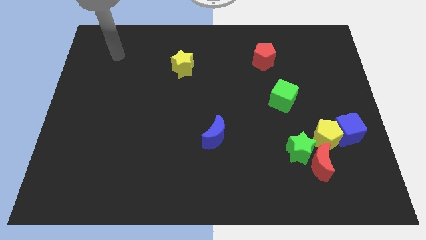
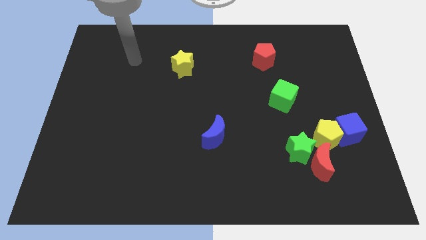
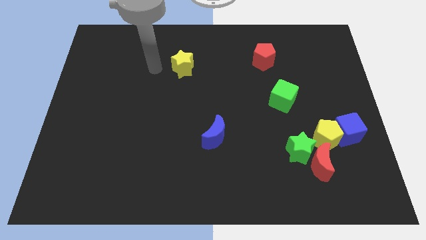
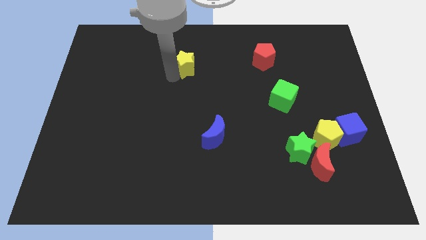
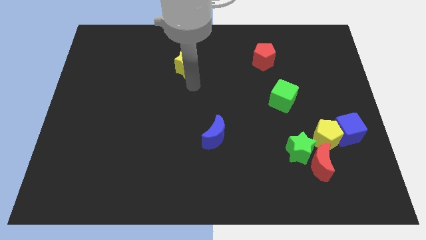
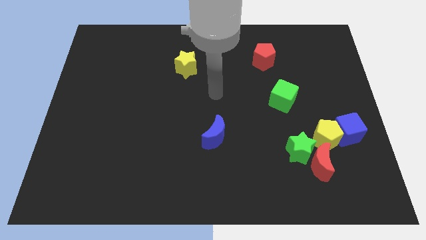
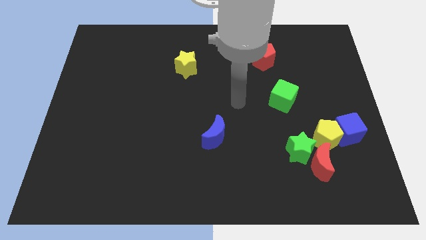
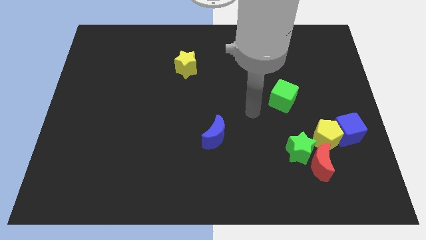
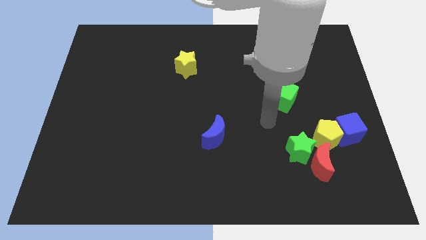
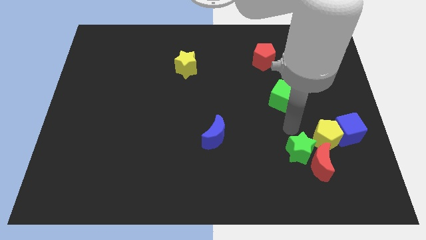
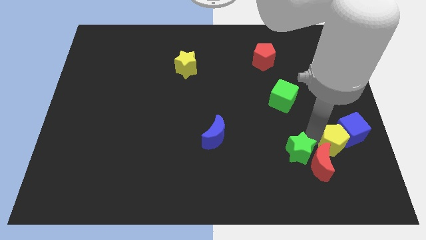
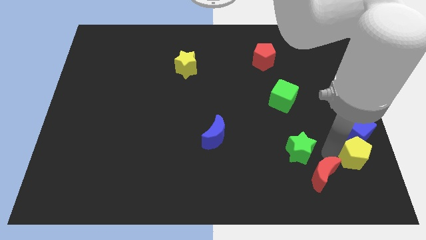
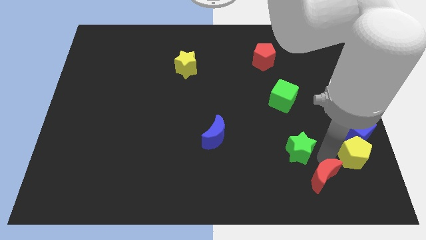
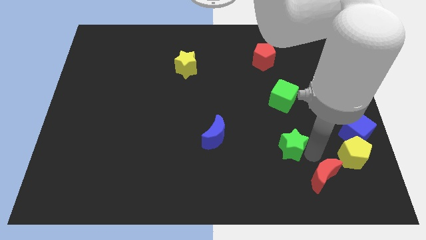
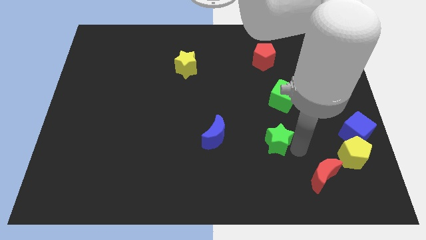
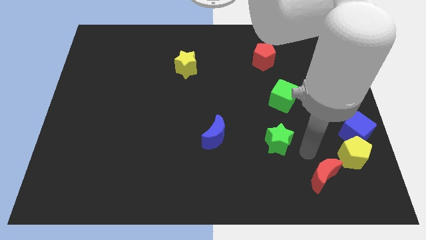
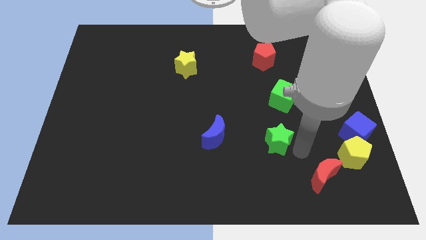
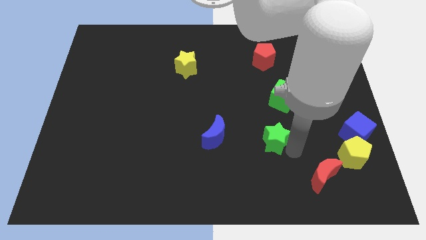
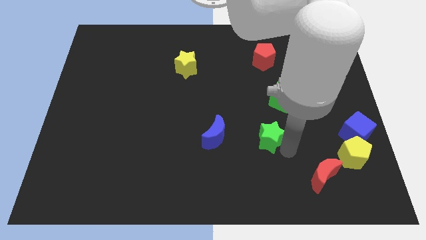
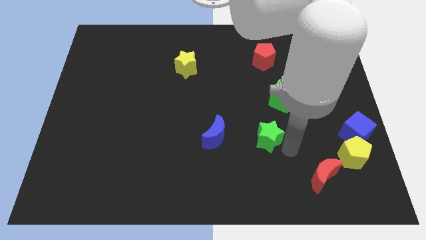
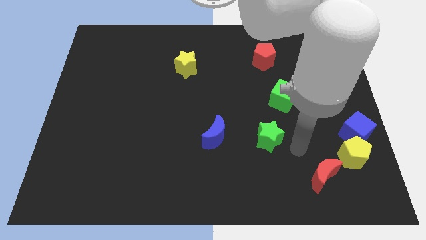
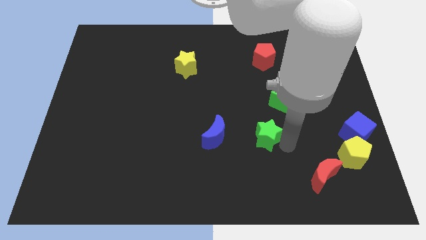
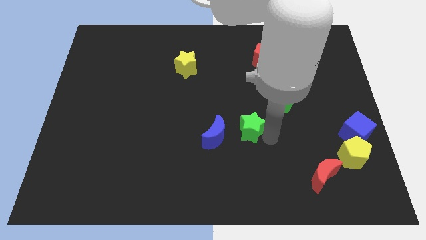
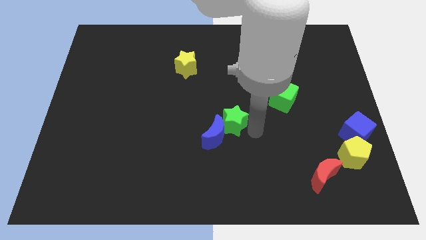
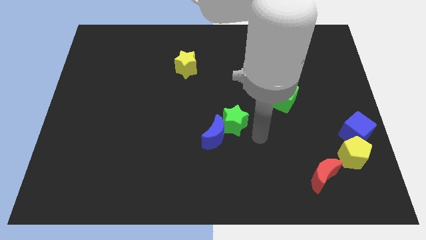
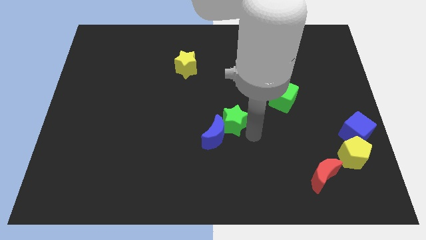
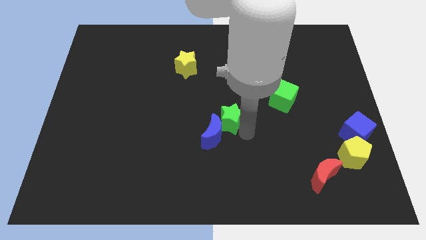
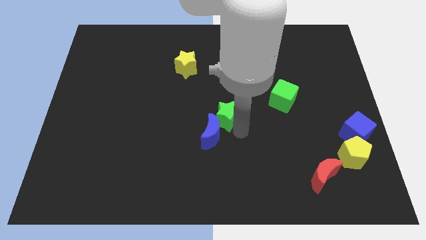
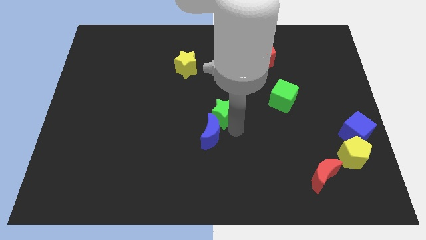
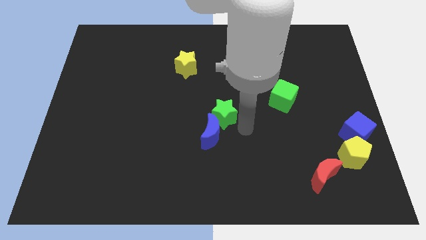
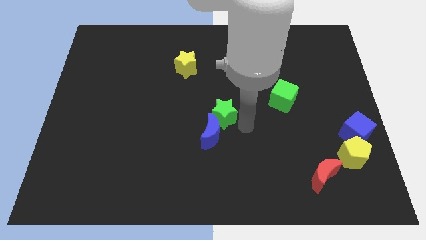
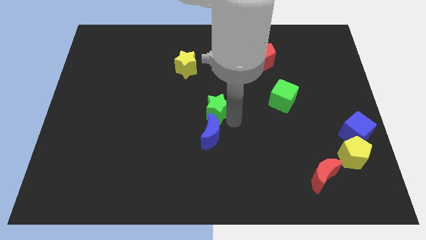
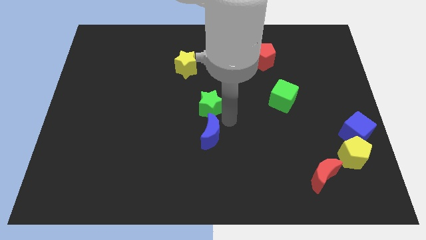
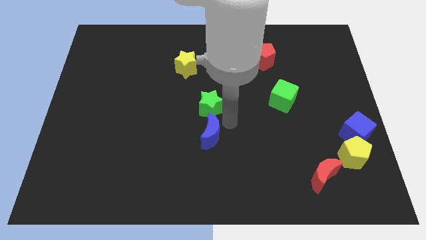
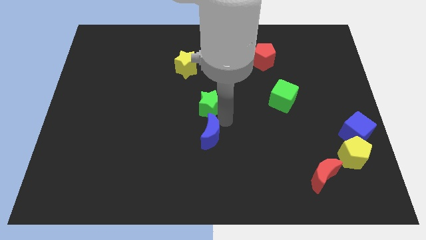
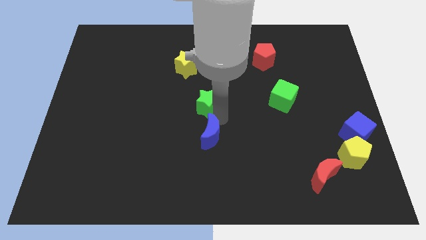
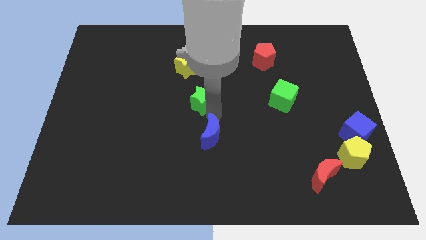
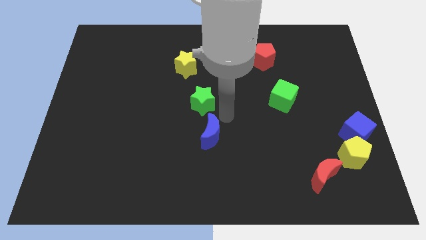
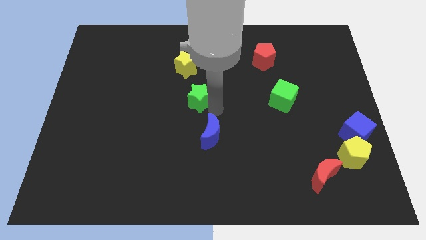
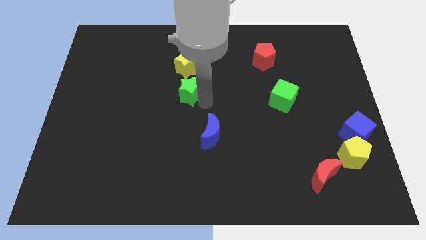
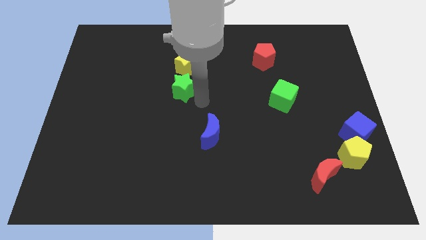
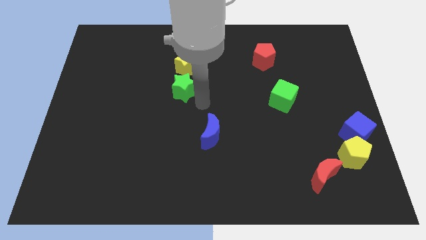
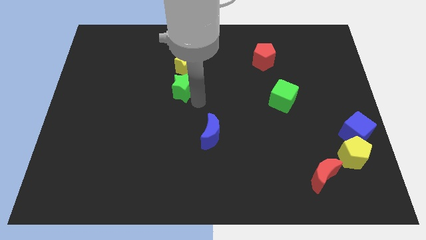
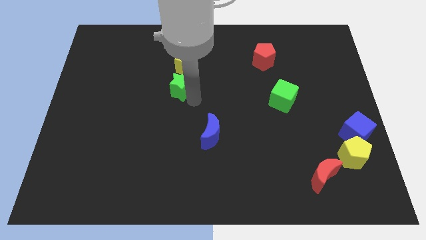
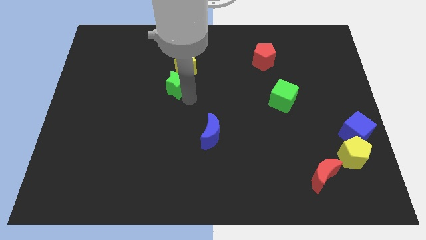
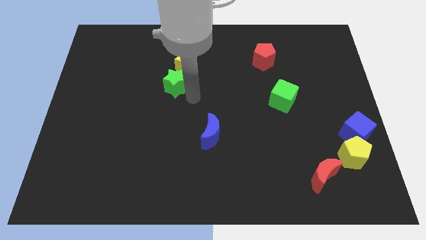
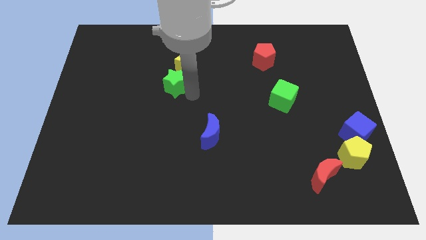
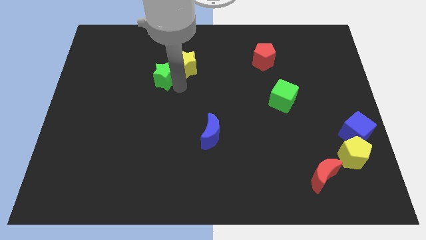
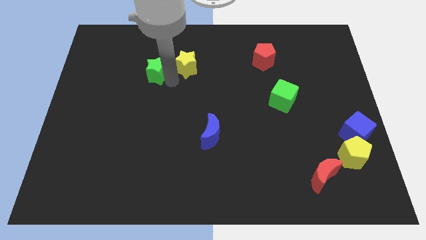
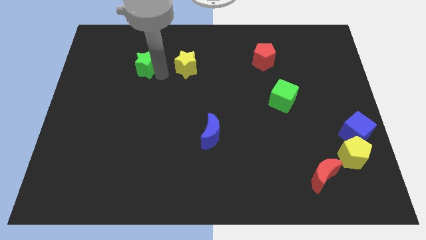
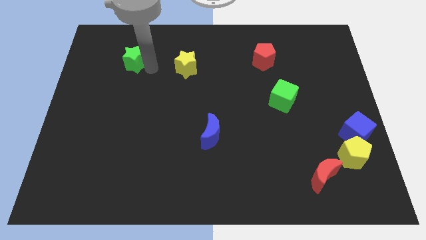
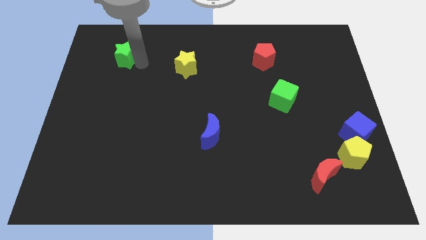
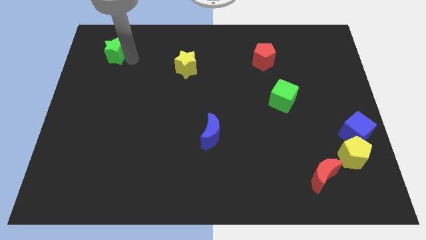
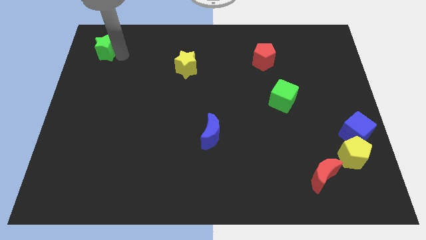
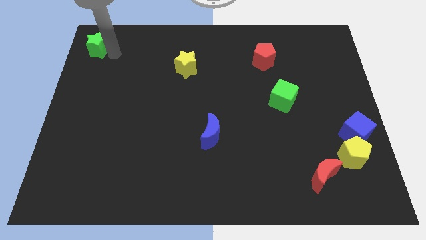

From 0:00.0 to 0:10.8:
put the green star to the top left

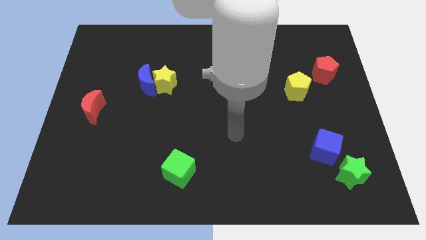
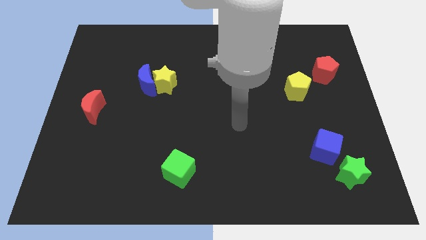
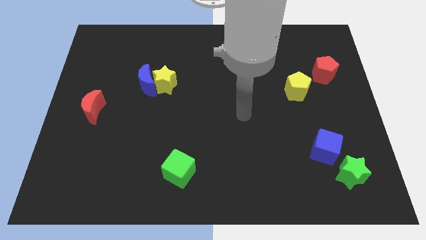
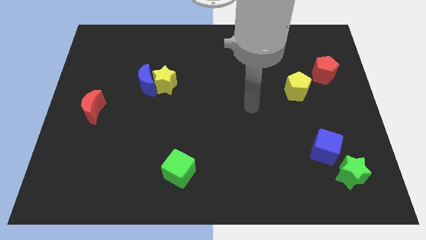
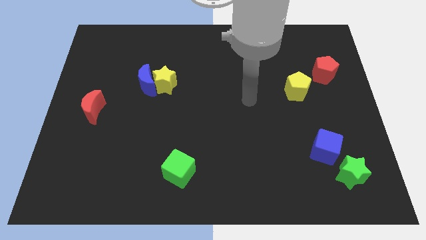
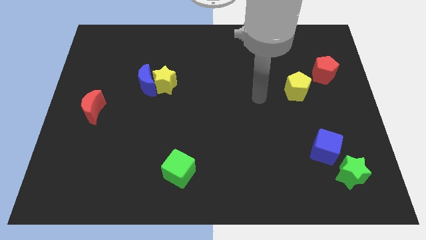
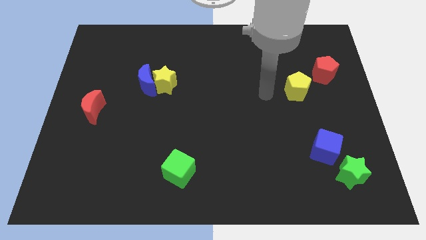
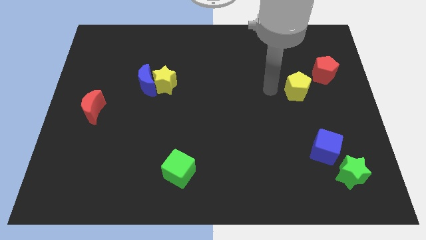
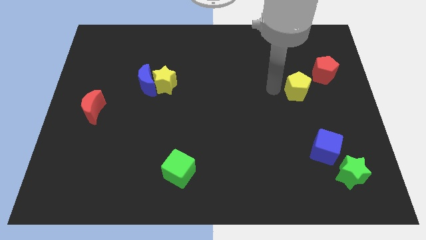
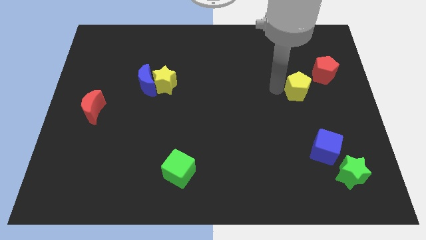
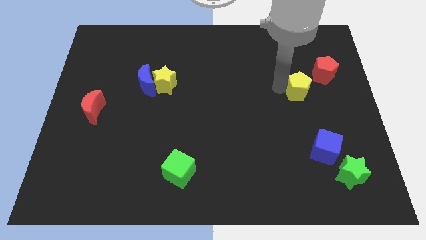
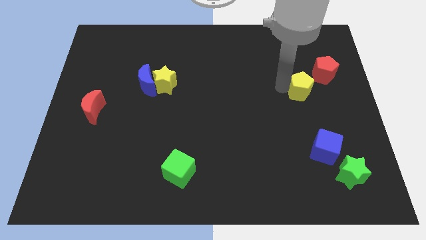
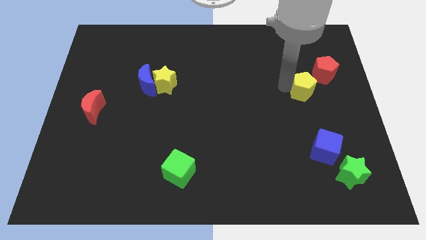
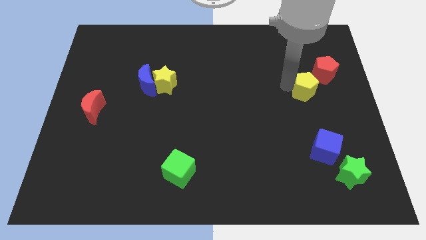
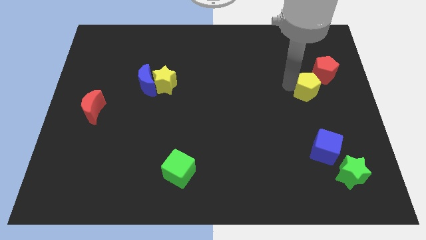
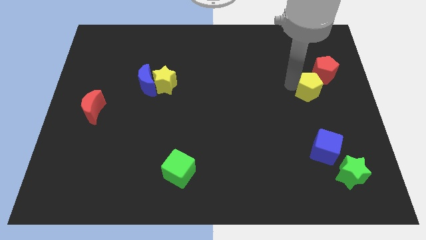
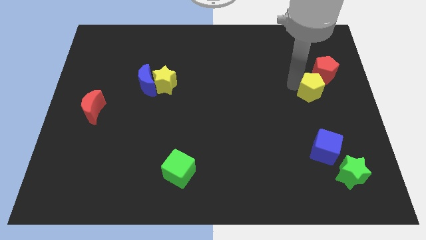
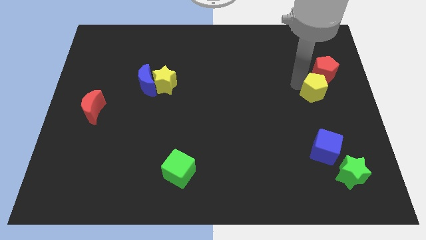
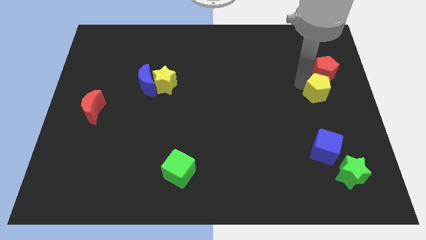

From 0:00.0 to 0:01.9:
push the yellow pentagon to the right side
